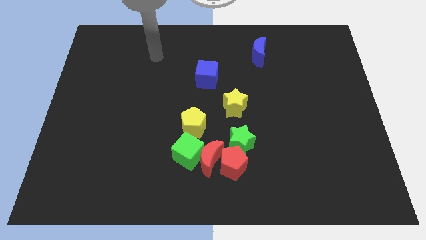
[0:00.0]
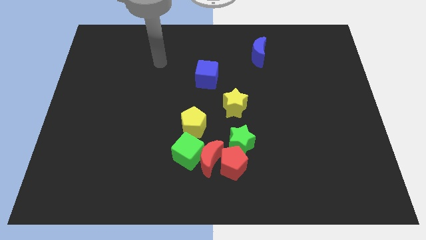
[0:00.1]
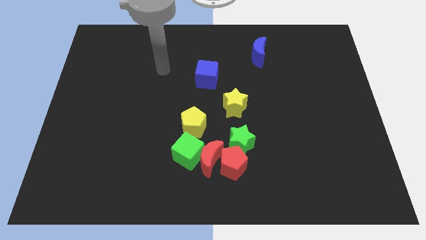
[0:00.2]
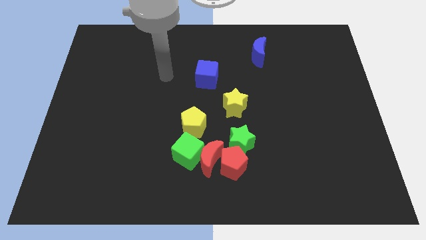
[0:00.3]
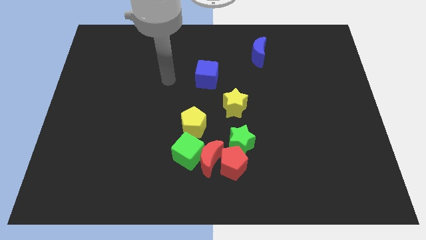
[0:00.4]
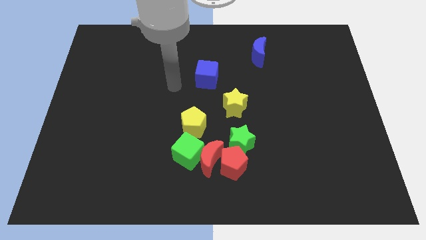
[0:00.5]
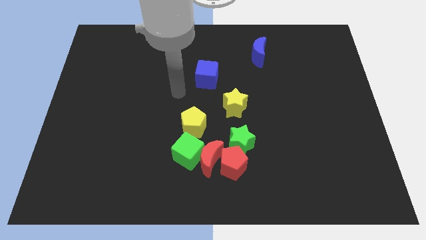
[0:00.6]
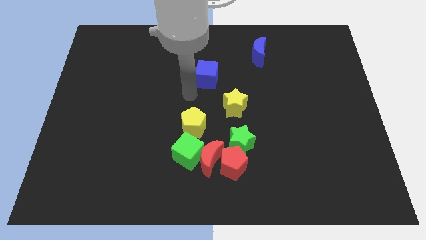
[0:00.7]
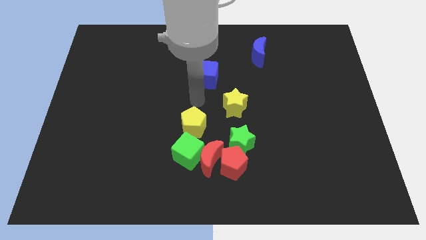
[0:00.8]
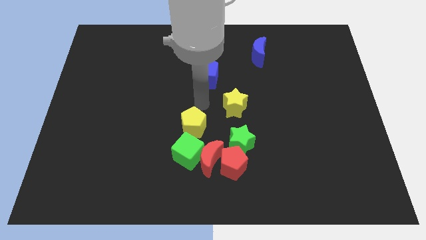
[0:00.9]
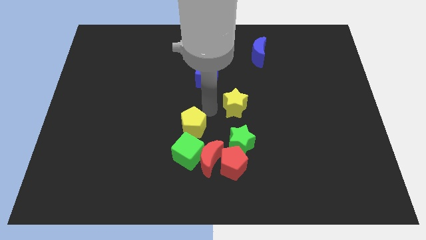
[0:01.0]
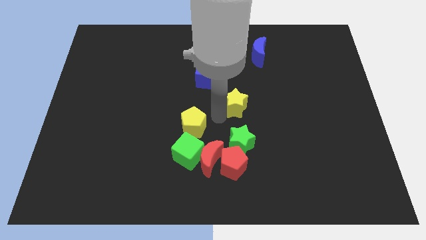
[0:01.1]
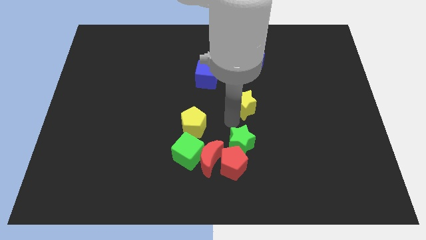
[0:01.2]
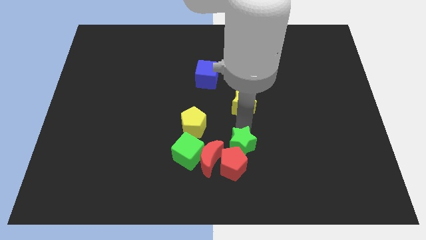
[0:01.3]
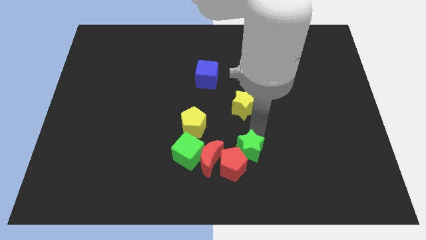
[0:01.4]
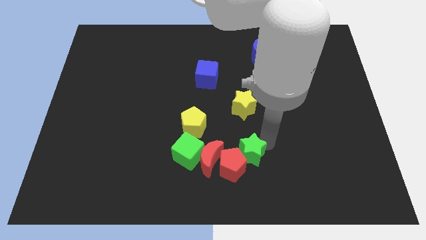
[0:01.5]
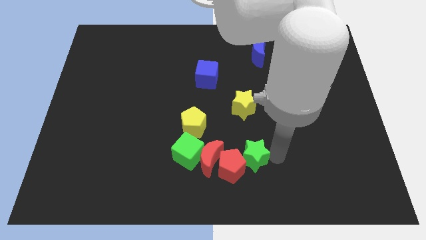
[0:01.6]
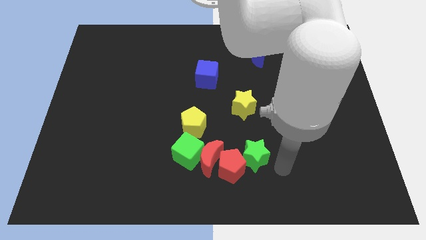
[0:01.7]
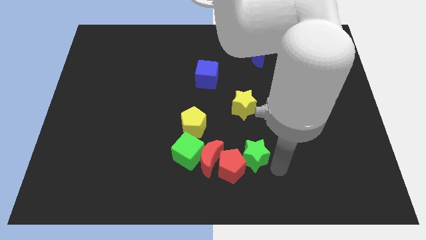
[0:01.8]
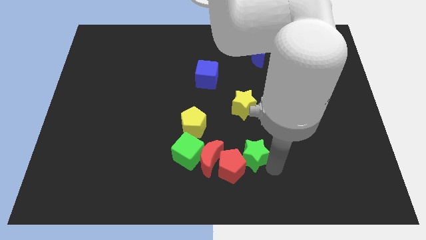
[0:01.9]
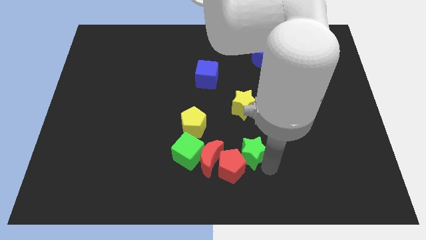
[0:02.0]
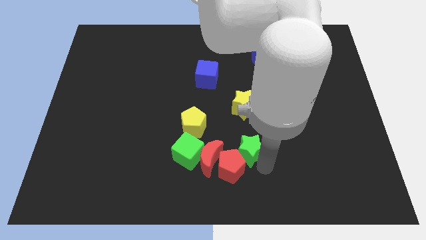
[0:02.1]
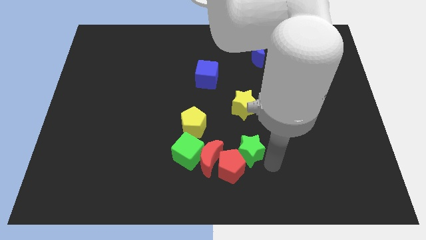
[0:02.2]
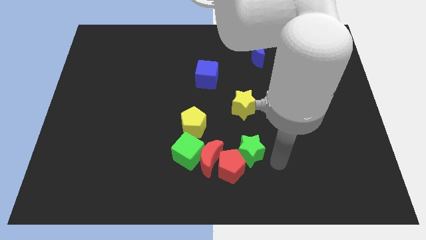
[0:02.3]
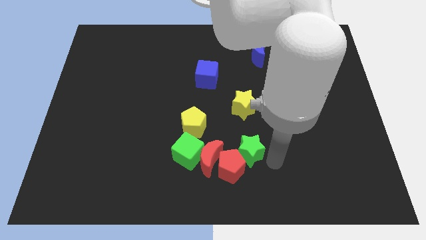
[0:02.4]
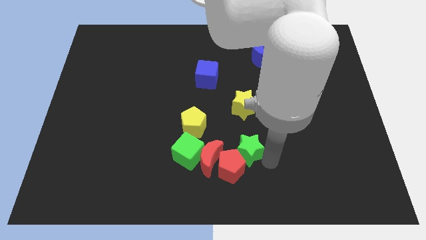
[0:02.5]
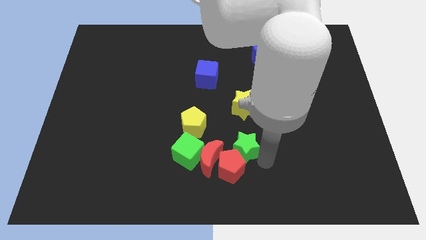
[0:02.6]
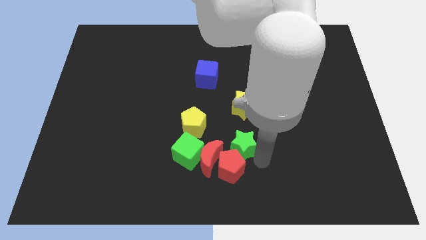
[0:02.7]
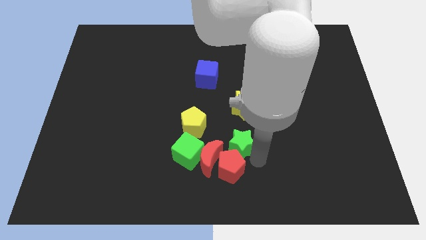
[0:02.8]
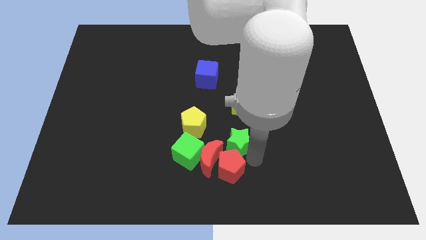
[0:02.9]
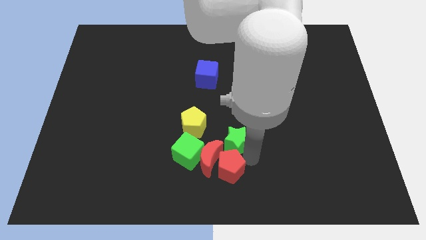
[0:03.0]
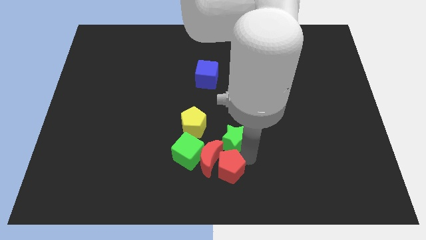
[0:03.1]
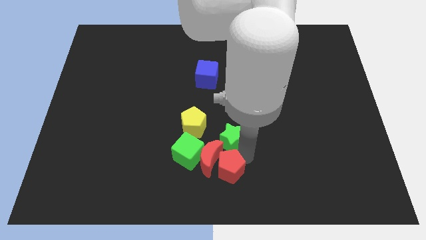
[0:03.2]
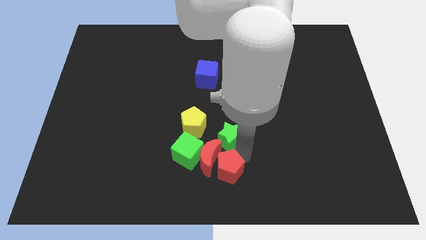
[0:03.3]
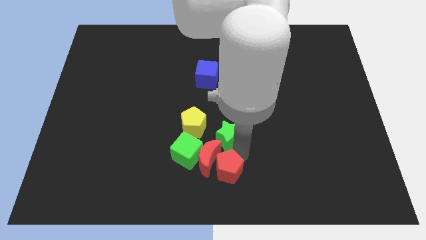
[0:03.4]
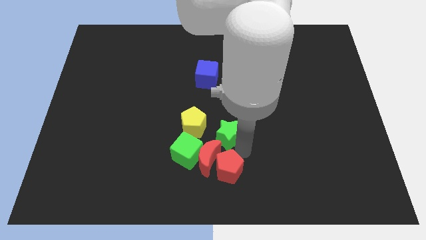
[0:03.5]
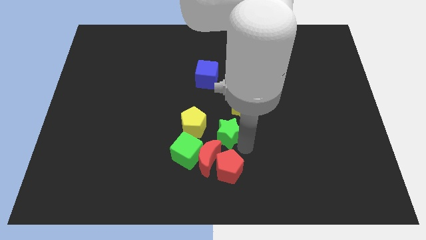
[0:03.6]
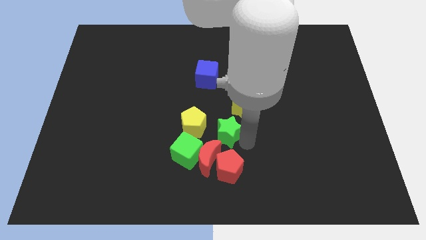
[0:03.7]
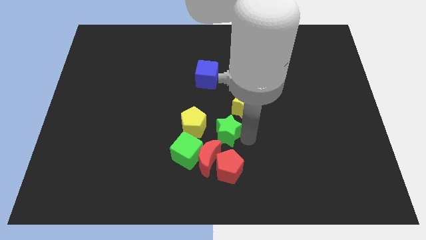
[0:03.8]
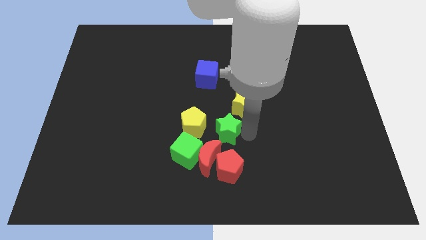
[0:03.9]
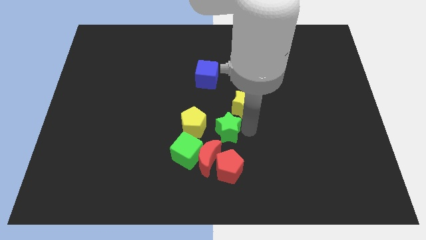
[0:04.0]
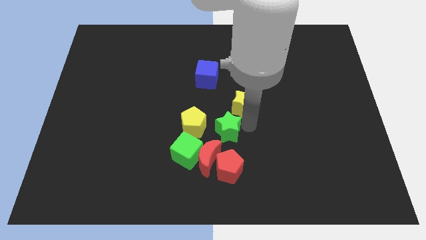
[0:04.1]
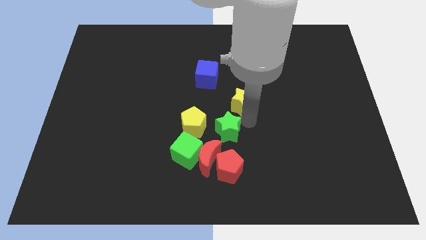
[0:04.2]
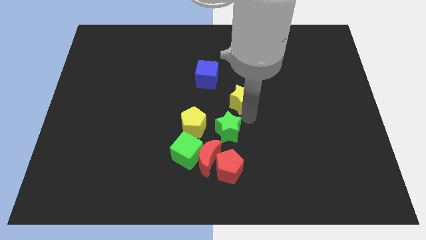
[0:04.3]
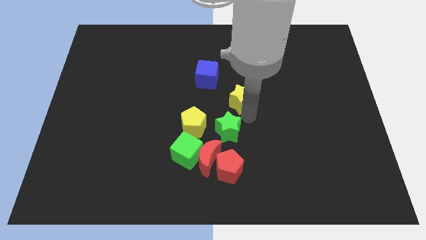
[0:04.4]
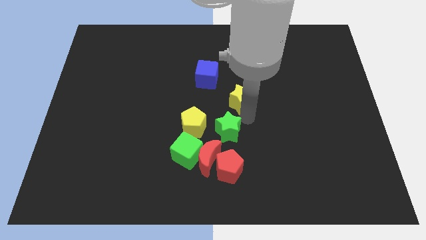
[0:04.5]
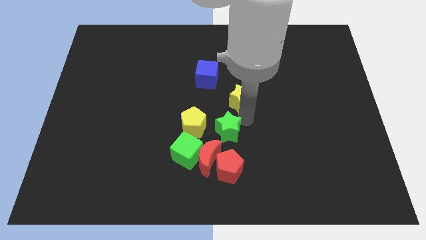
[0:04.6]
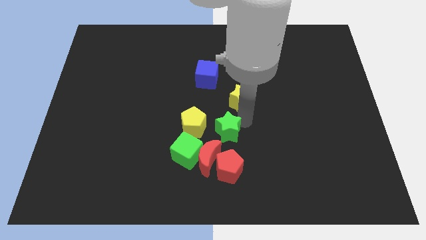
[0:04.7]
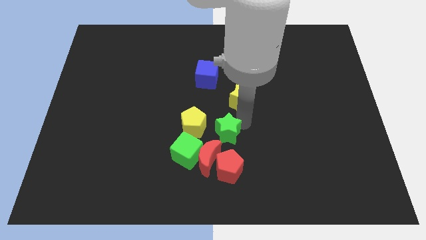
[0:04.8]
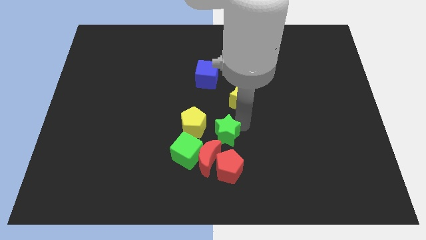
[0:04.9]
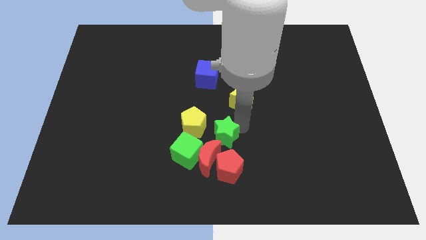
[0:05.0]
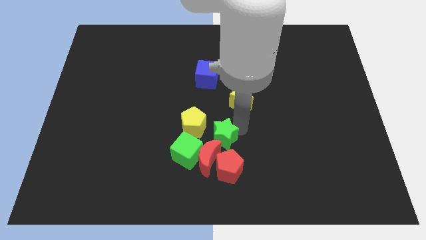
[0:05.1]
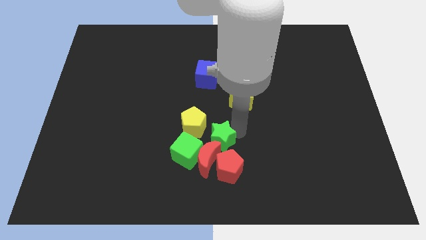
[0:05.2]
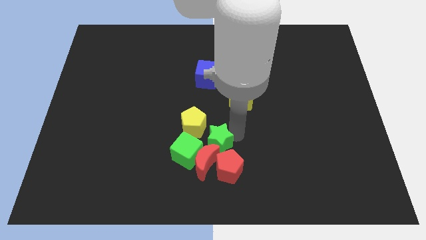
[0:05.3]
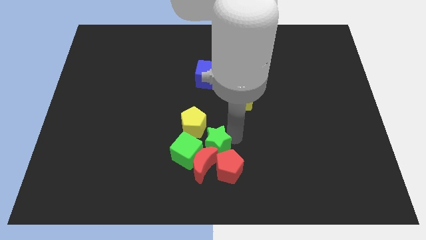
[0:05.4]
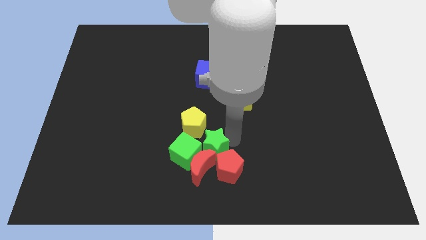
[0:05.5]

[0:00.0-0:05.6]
put the green star to the green cube

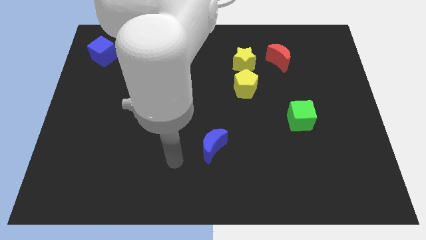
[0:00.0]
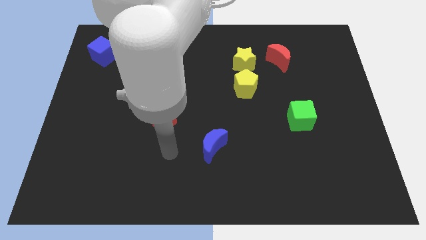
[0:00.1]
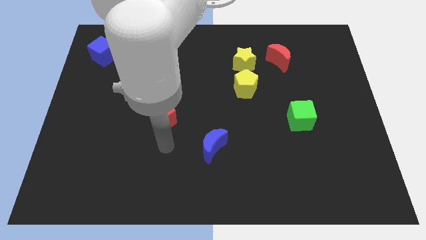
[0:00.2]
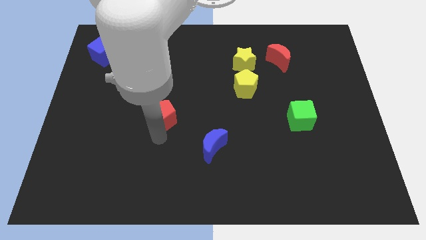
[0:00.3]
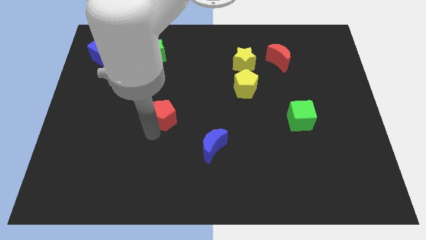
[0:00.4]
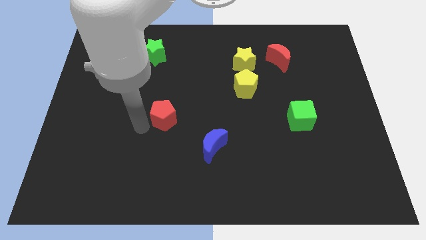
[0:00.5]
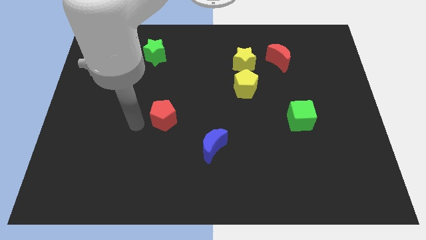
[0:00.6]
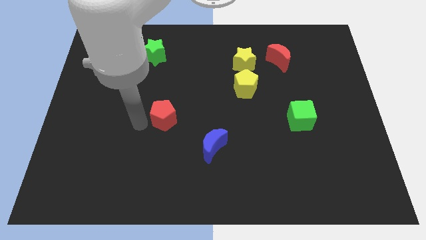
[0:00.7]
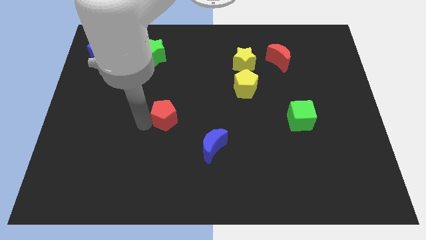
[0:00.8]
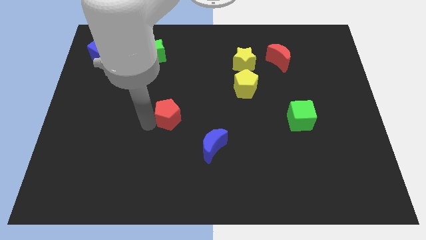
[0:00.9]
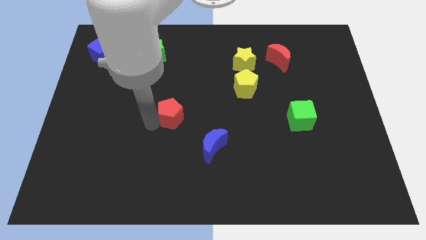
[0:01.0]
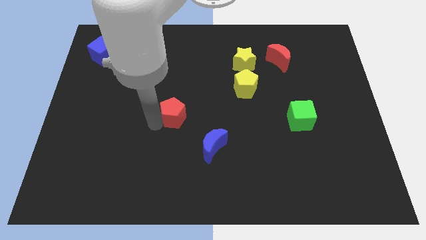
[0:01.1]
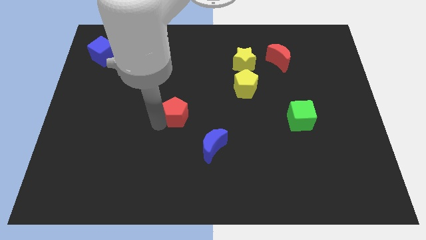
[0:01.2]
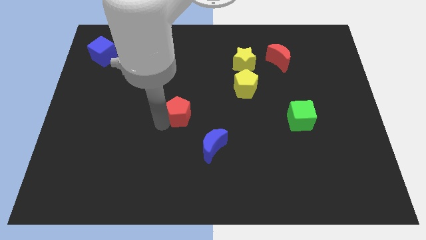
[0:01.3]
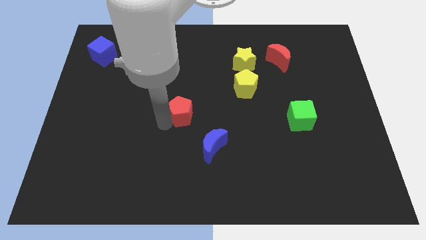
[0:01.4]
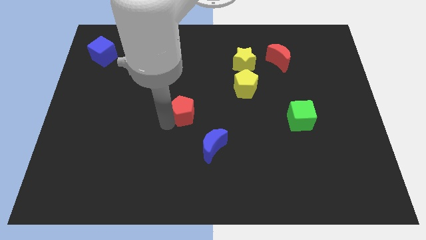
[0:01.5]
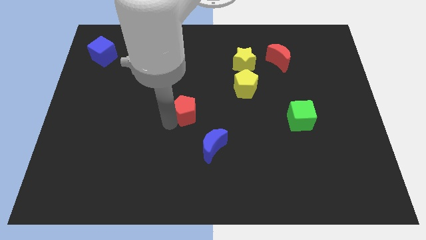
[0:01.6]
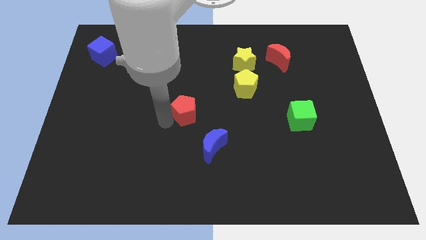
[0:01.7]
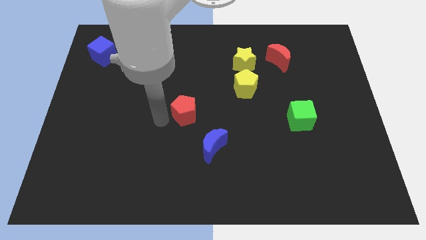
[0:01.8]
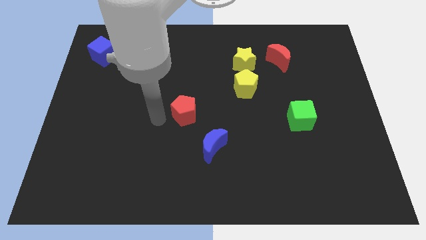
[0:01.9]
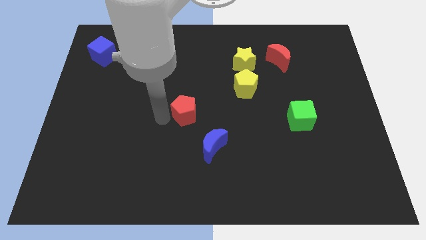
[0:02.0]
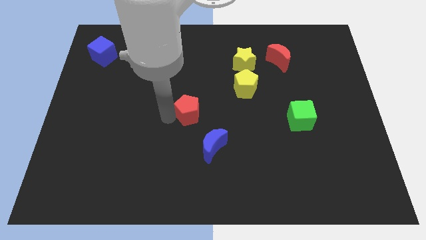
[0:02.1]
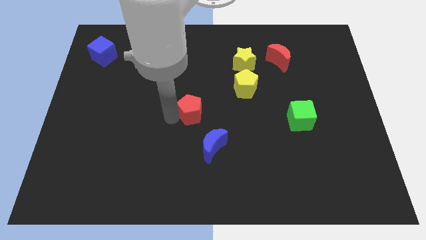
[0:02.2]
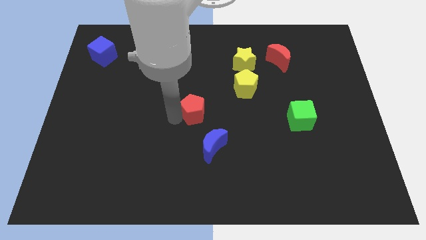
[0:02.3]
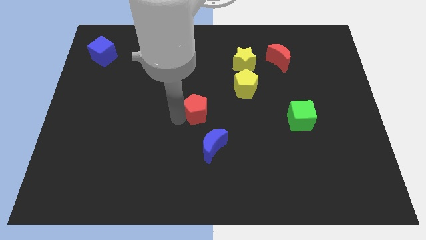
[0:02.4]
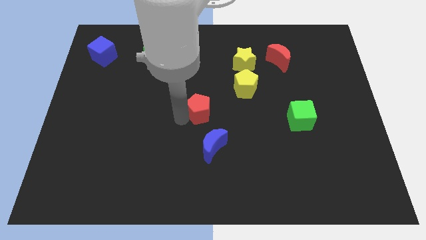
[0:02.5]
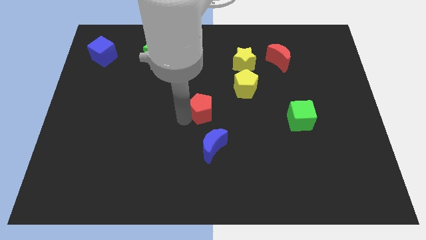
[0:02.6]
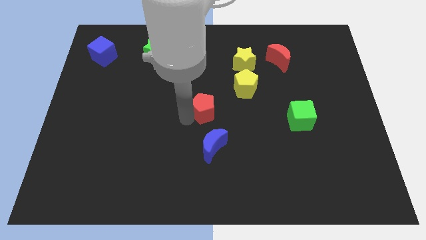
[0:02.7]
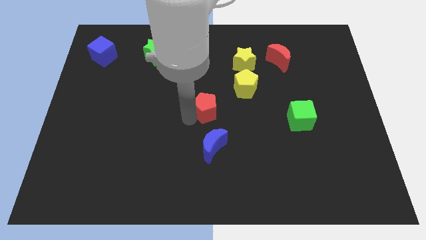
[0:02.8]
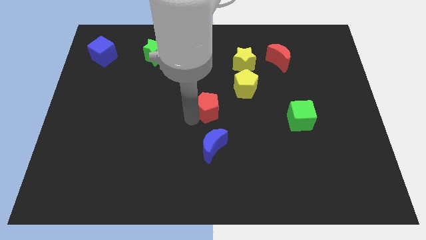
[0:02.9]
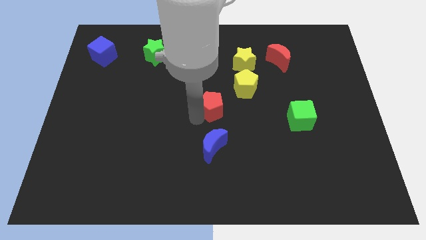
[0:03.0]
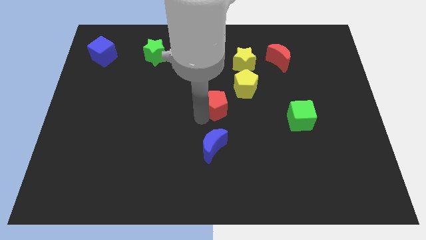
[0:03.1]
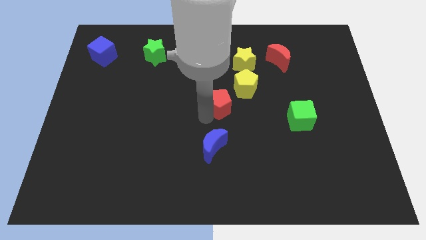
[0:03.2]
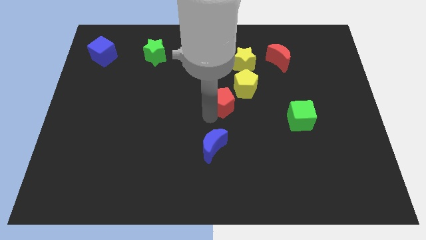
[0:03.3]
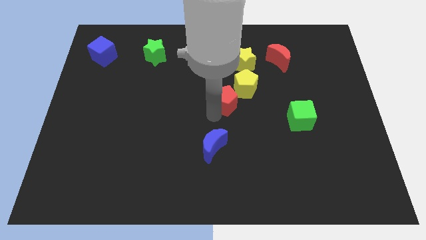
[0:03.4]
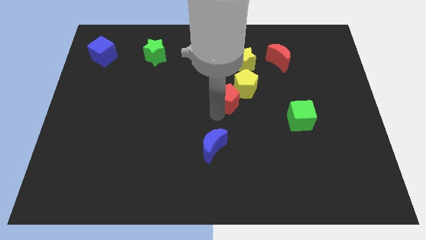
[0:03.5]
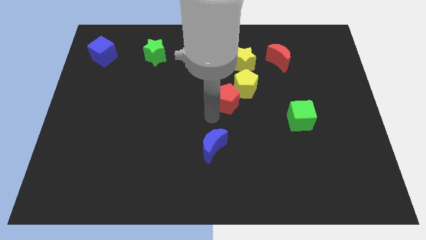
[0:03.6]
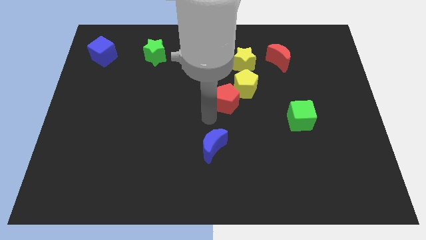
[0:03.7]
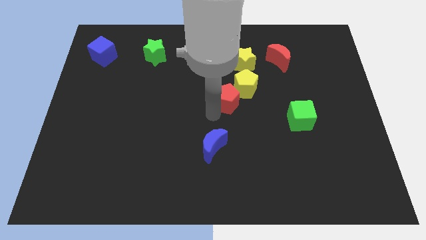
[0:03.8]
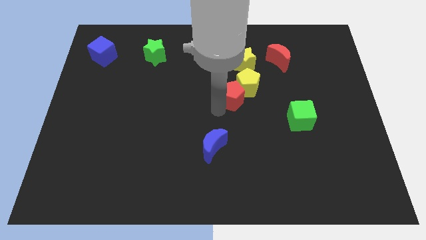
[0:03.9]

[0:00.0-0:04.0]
move the red pentagon to the yellow pentagon
